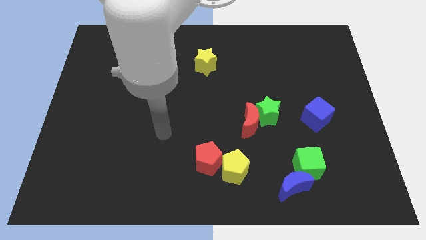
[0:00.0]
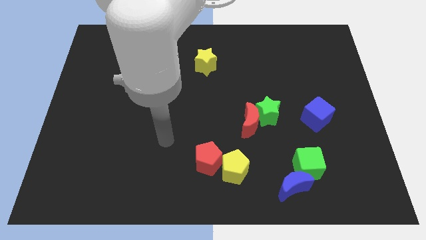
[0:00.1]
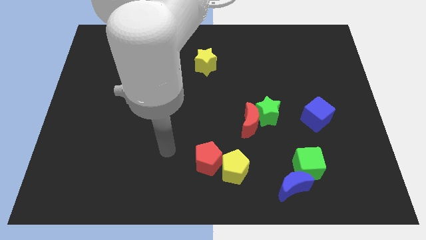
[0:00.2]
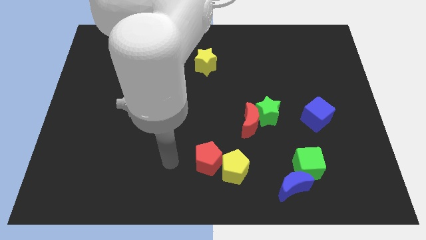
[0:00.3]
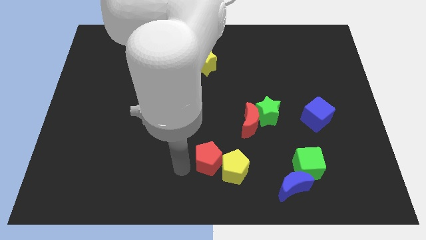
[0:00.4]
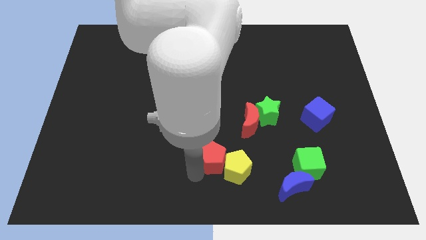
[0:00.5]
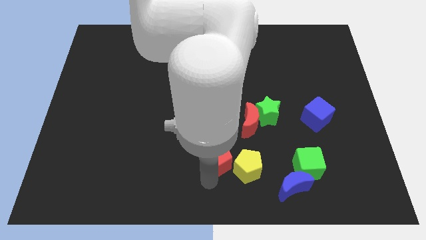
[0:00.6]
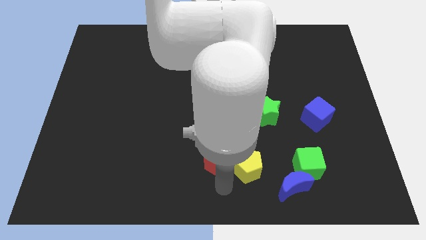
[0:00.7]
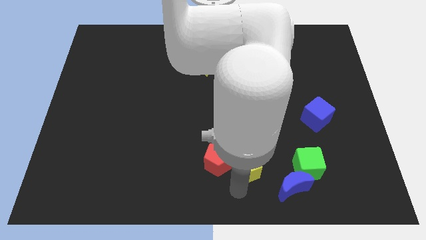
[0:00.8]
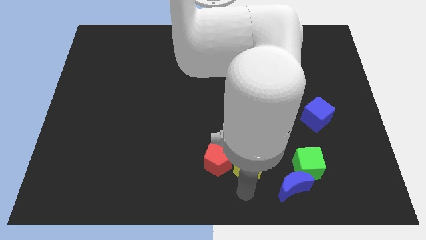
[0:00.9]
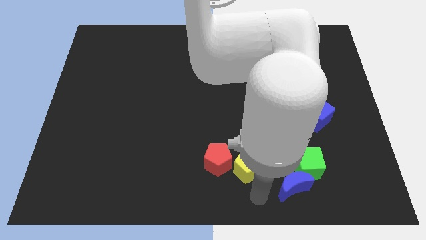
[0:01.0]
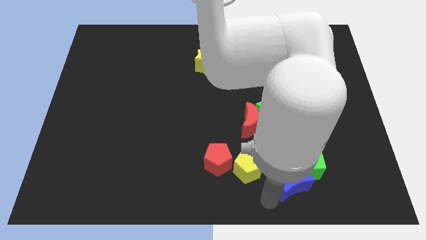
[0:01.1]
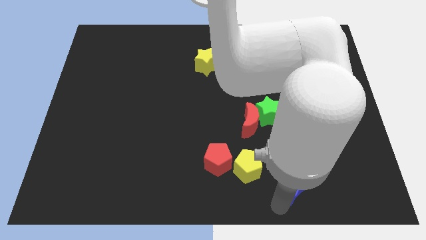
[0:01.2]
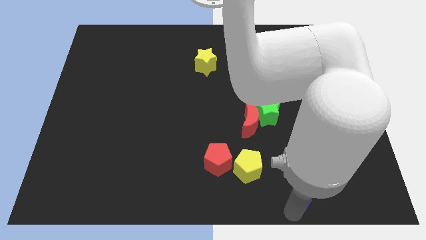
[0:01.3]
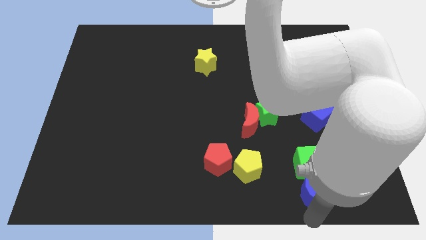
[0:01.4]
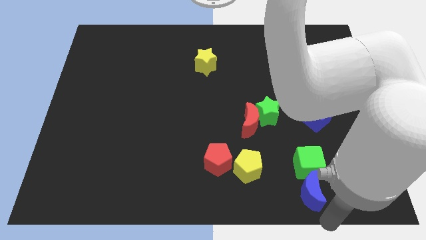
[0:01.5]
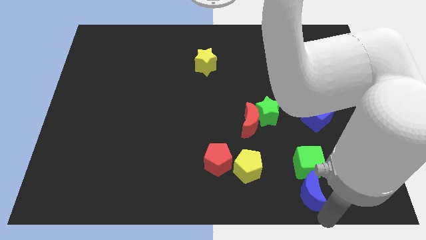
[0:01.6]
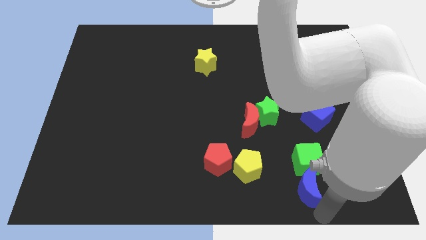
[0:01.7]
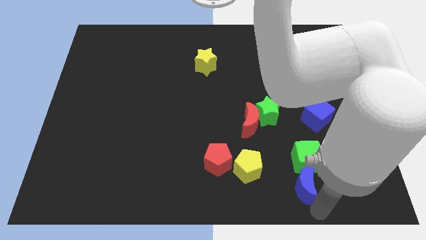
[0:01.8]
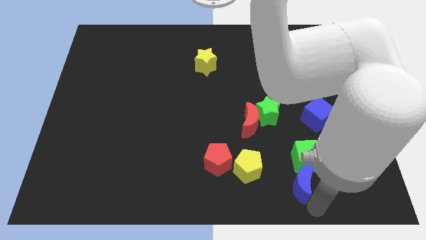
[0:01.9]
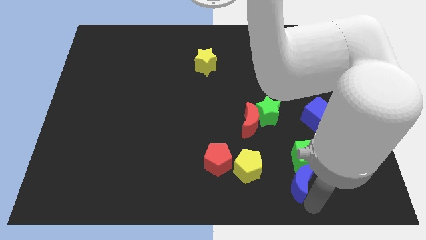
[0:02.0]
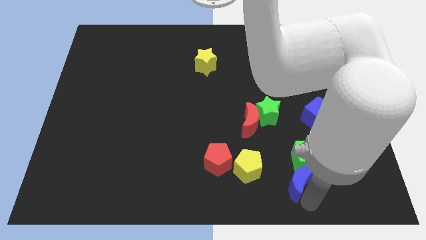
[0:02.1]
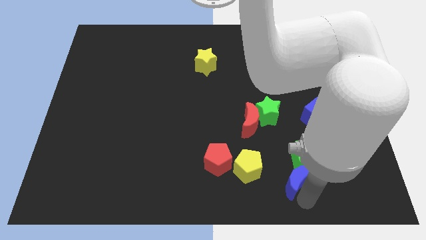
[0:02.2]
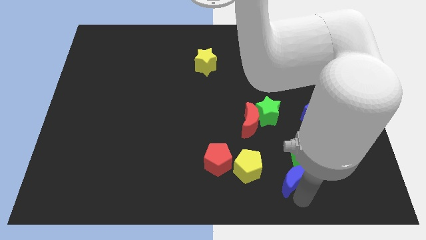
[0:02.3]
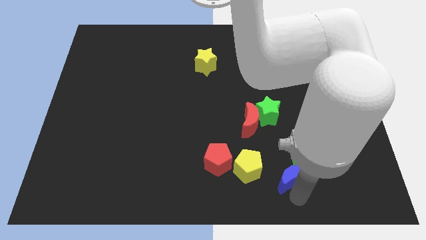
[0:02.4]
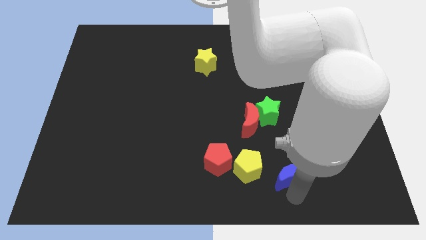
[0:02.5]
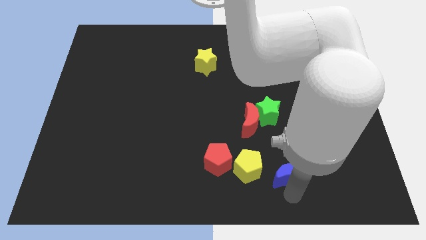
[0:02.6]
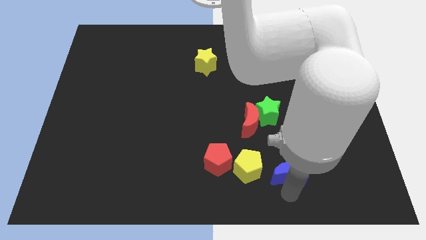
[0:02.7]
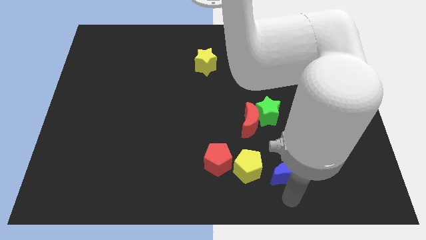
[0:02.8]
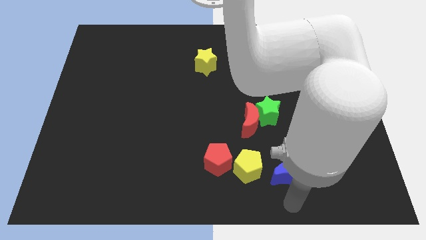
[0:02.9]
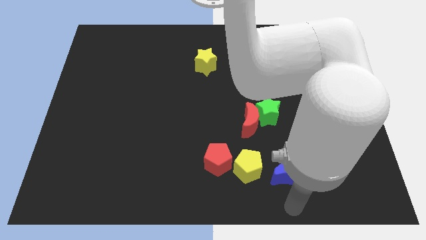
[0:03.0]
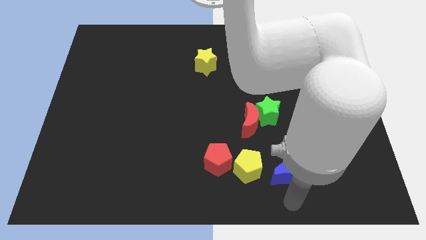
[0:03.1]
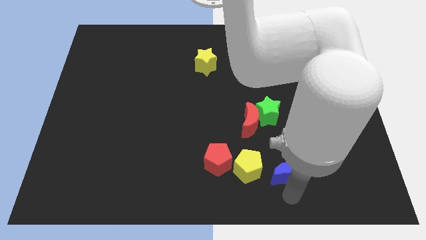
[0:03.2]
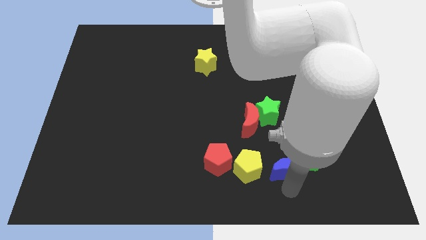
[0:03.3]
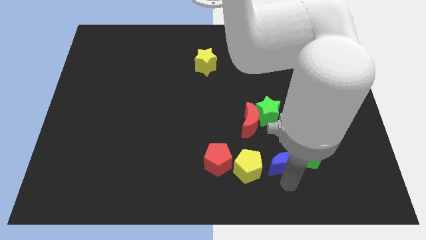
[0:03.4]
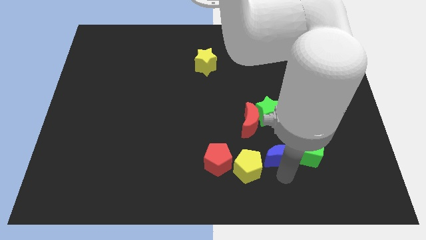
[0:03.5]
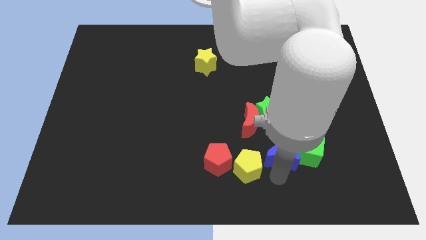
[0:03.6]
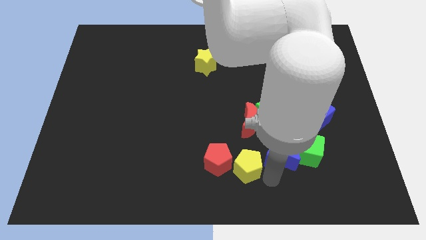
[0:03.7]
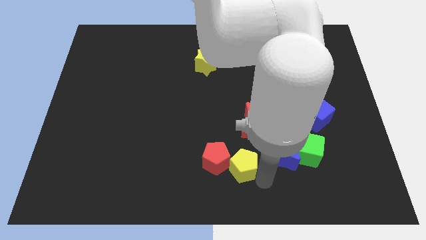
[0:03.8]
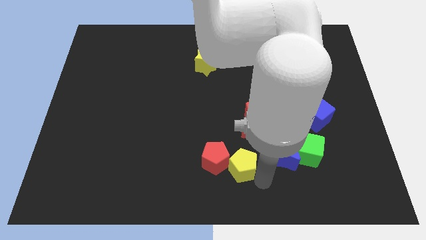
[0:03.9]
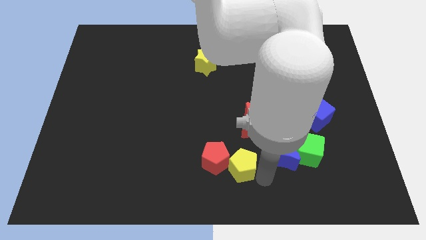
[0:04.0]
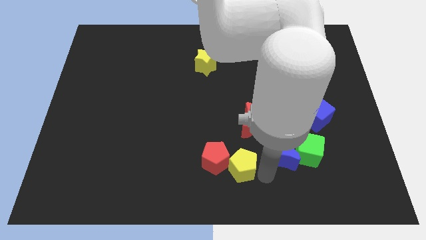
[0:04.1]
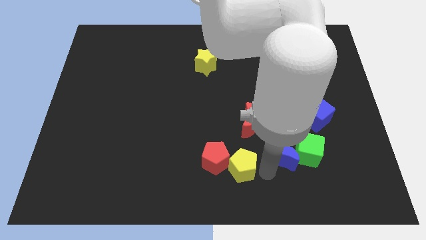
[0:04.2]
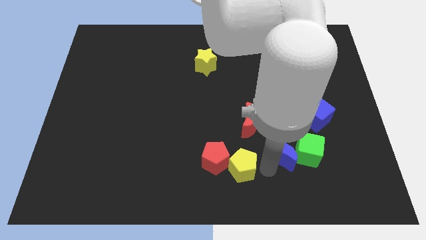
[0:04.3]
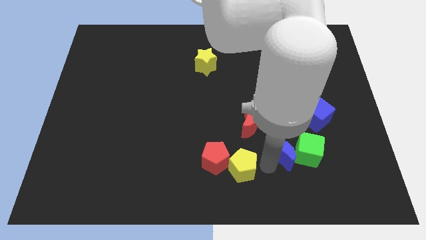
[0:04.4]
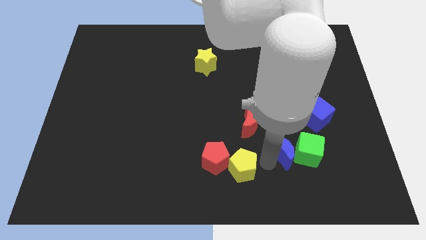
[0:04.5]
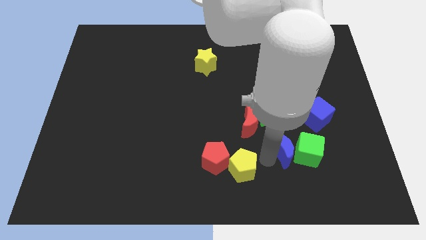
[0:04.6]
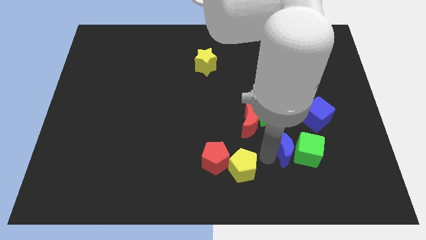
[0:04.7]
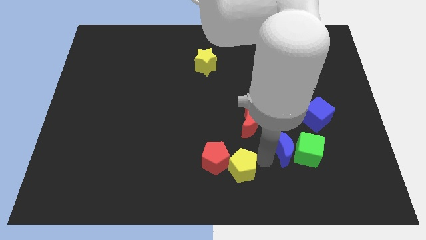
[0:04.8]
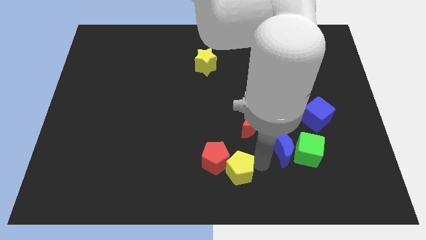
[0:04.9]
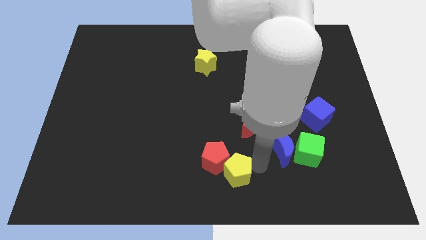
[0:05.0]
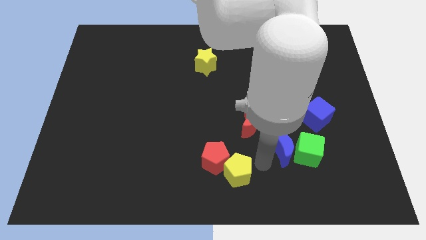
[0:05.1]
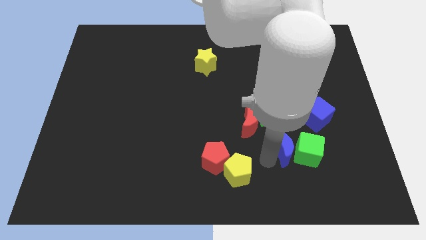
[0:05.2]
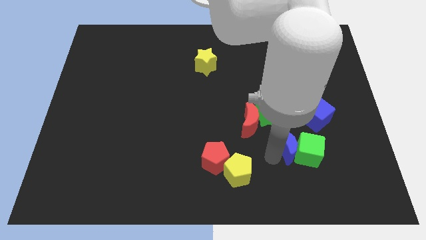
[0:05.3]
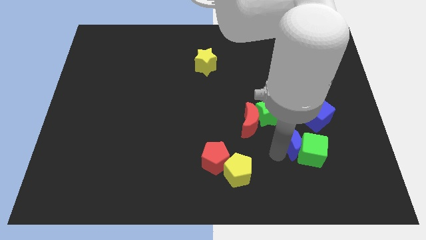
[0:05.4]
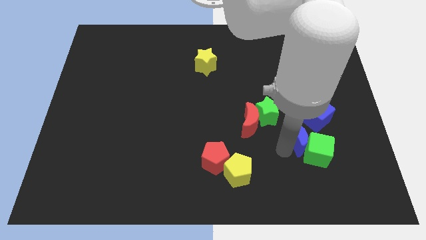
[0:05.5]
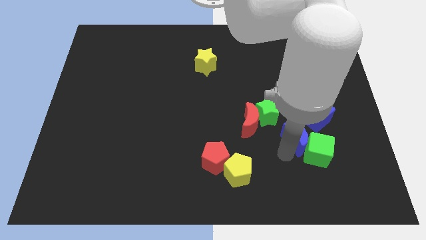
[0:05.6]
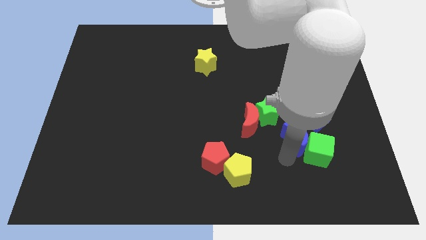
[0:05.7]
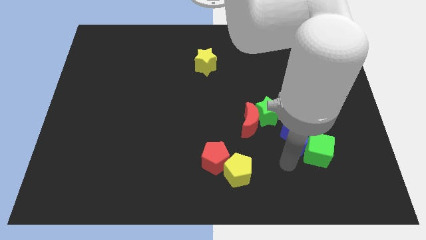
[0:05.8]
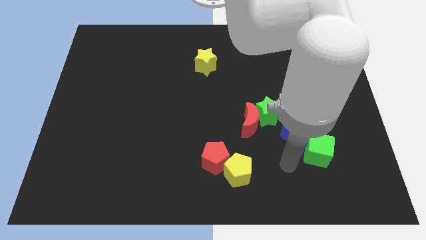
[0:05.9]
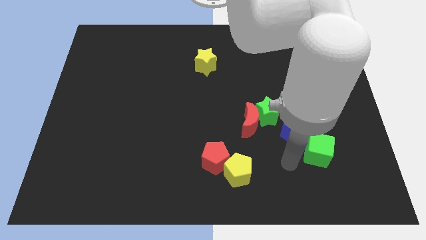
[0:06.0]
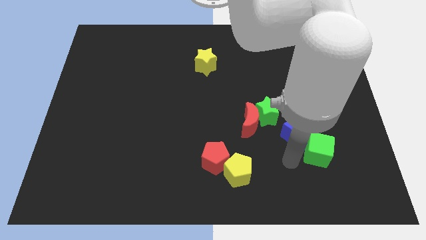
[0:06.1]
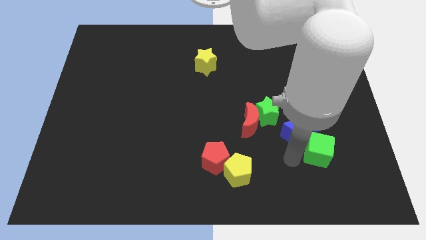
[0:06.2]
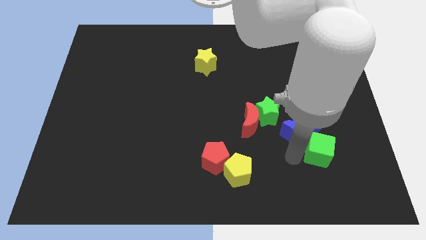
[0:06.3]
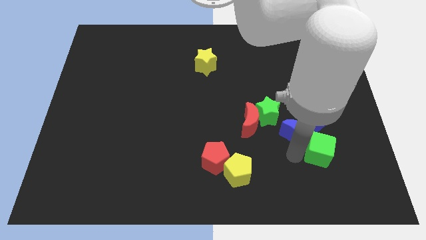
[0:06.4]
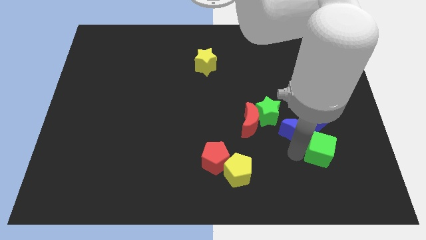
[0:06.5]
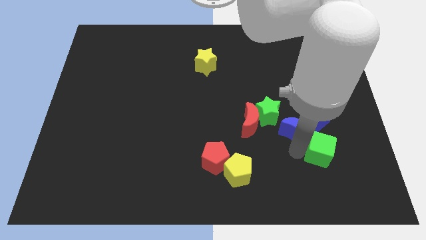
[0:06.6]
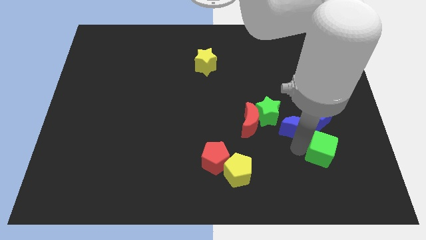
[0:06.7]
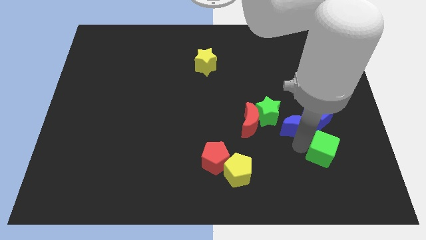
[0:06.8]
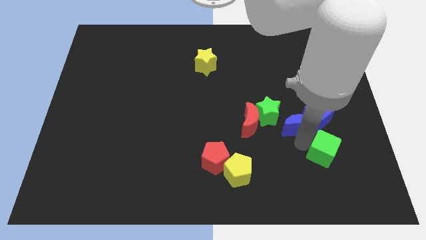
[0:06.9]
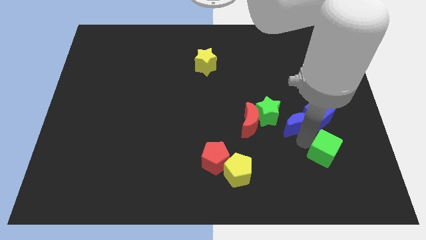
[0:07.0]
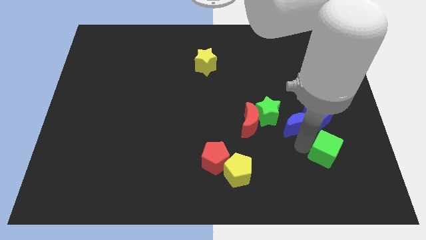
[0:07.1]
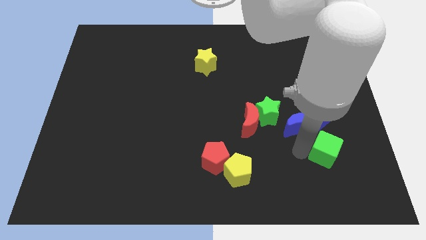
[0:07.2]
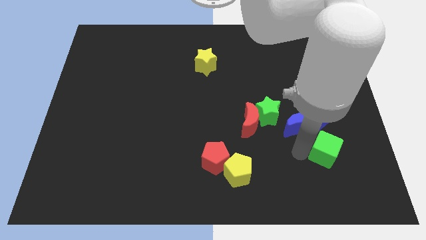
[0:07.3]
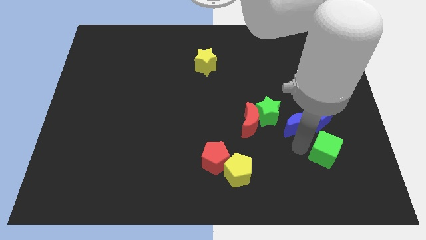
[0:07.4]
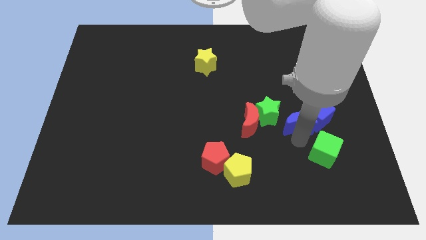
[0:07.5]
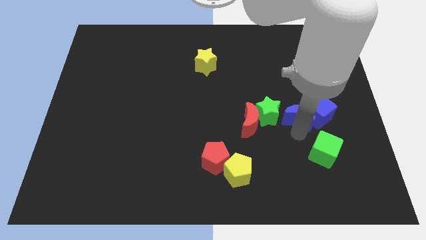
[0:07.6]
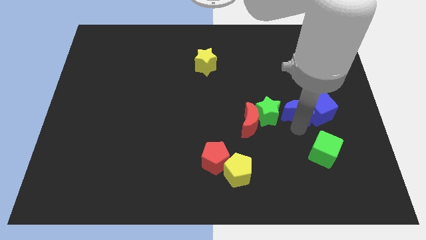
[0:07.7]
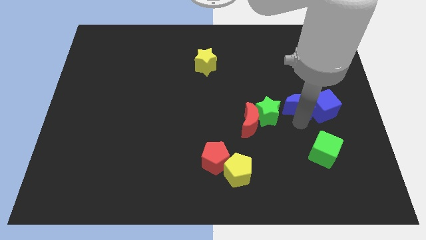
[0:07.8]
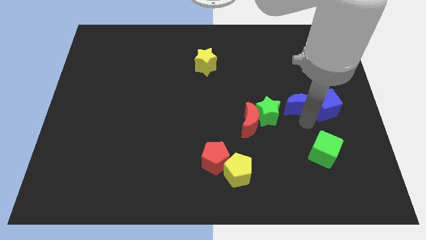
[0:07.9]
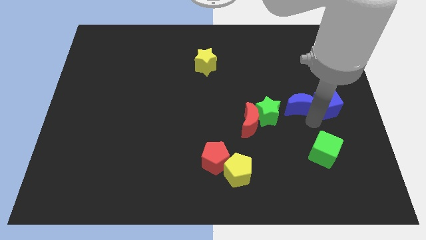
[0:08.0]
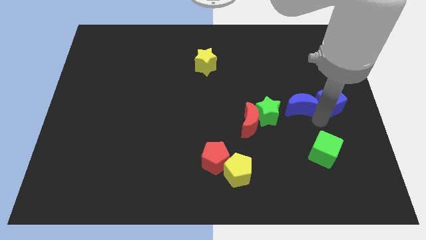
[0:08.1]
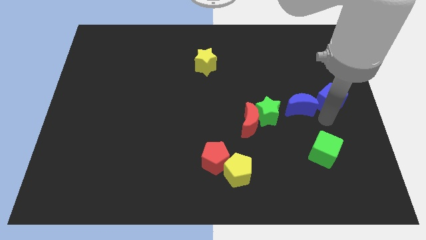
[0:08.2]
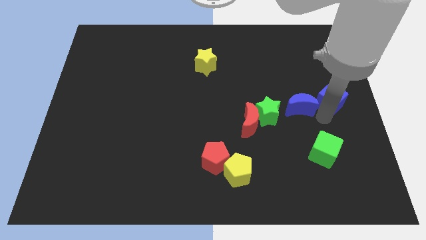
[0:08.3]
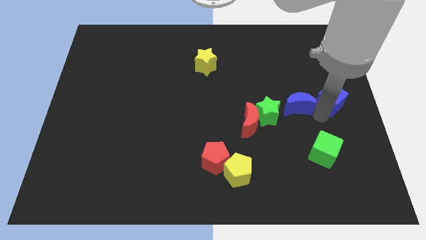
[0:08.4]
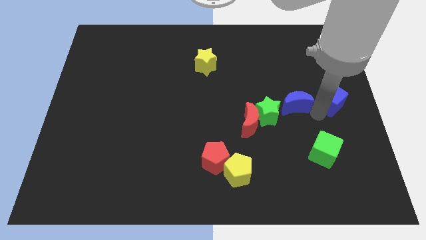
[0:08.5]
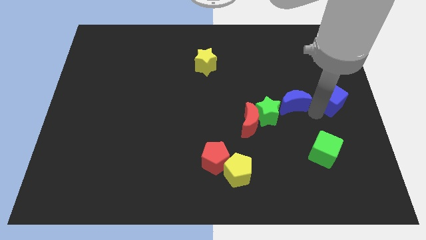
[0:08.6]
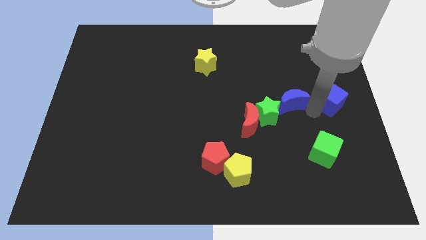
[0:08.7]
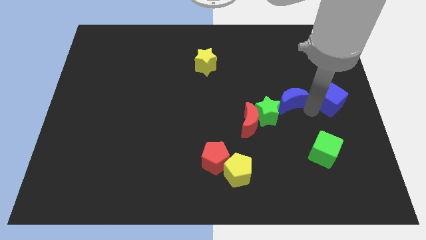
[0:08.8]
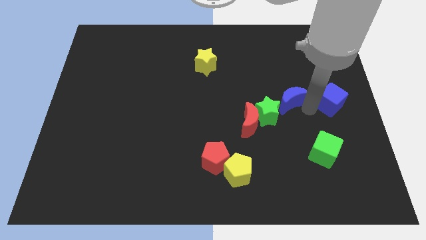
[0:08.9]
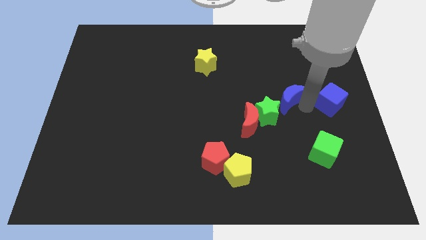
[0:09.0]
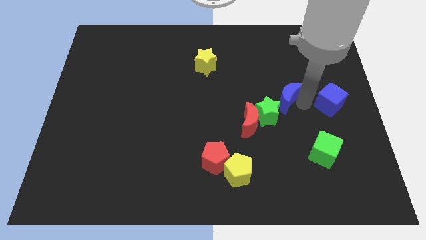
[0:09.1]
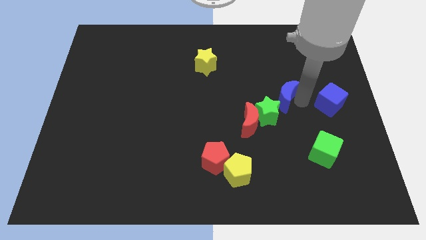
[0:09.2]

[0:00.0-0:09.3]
move the blue moon to the top of the green star
